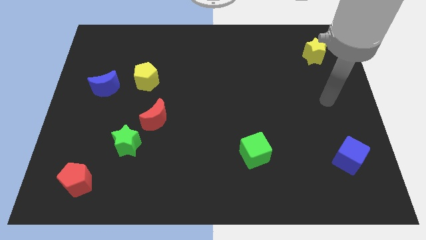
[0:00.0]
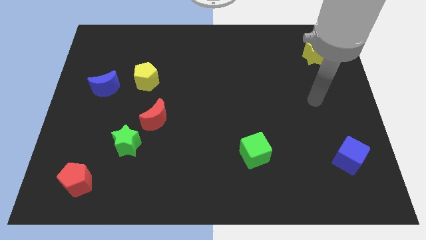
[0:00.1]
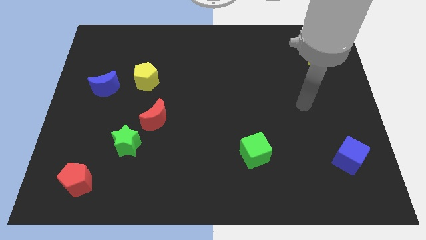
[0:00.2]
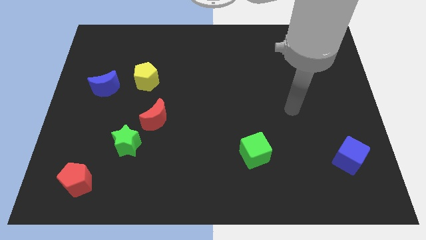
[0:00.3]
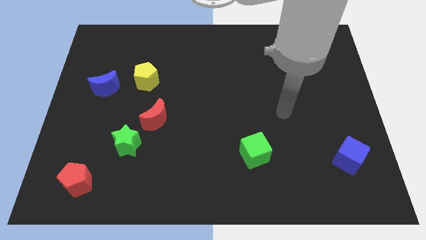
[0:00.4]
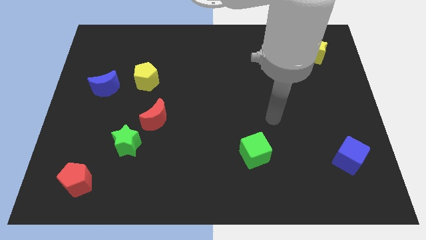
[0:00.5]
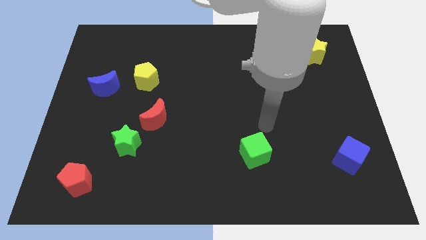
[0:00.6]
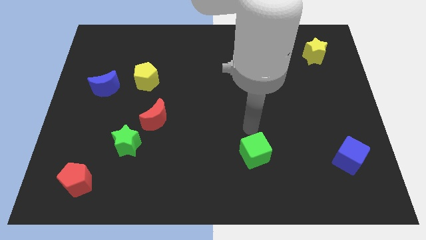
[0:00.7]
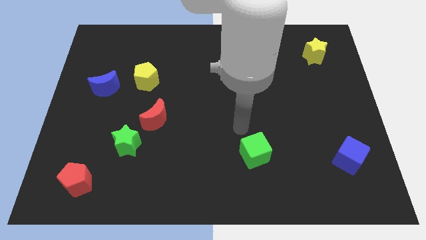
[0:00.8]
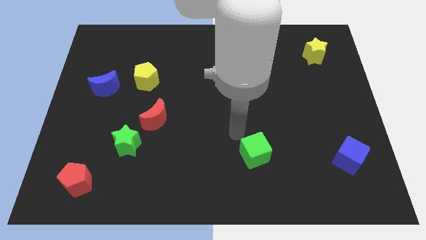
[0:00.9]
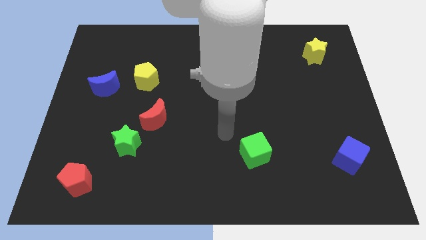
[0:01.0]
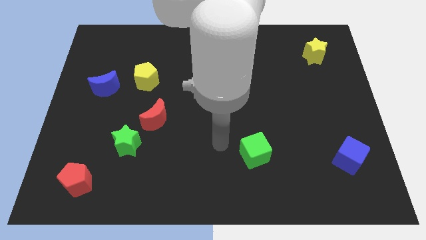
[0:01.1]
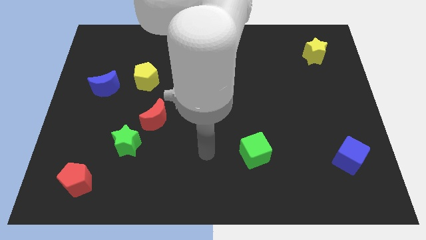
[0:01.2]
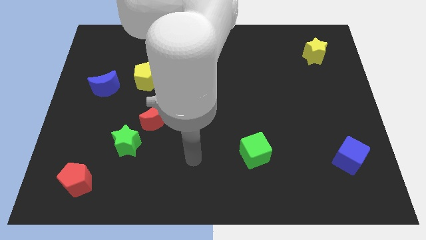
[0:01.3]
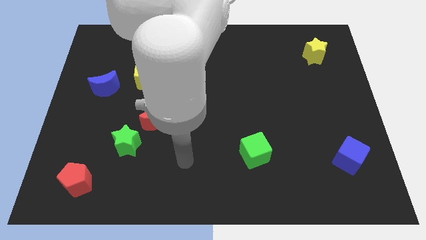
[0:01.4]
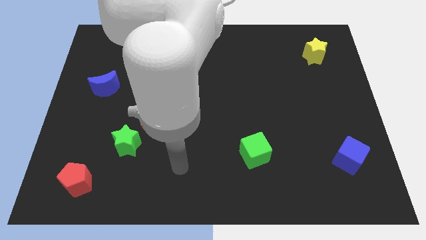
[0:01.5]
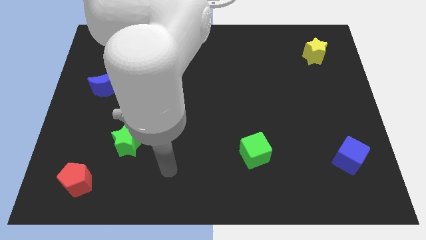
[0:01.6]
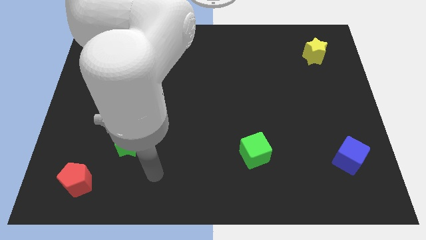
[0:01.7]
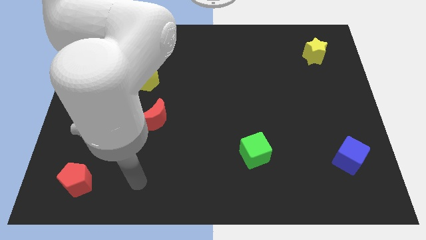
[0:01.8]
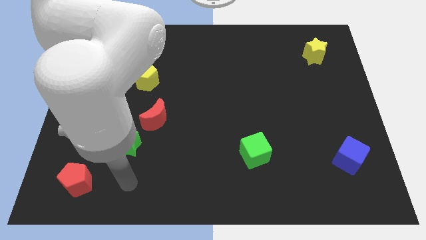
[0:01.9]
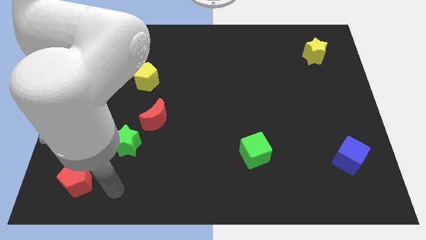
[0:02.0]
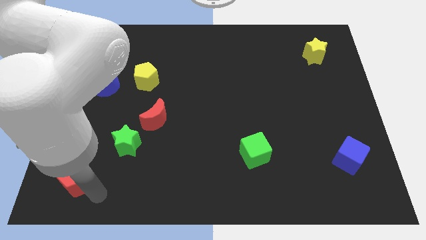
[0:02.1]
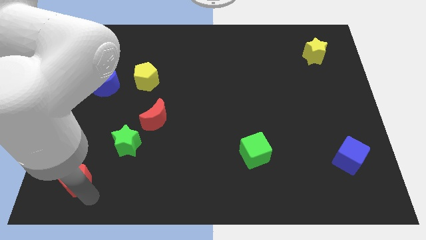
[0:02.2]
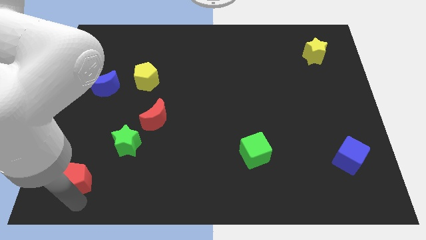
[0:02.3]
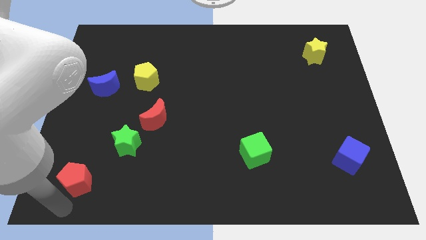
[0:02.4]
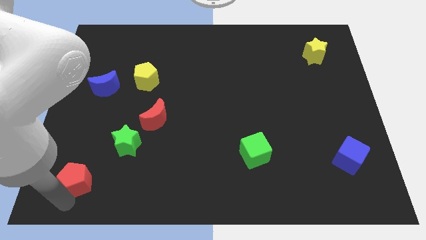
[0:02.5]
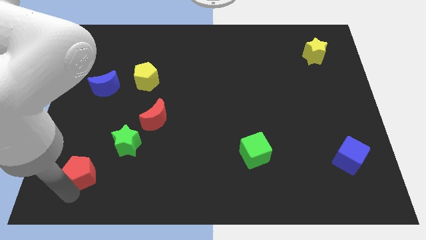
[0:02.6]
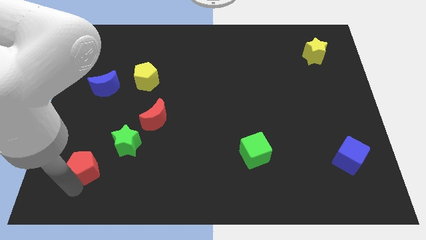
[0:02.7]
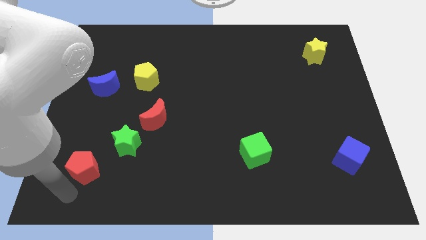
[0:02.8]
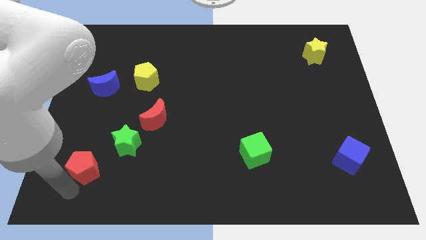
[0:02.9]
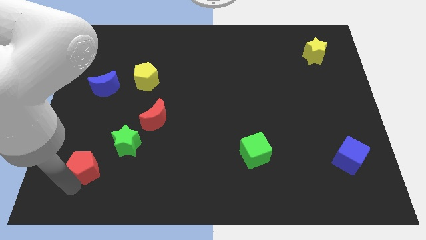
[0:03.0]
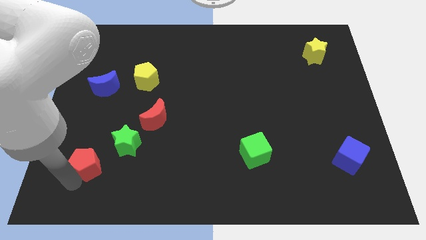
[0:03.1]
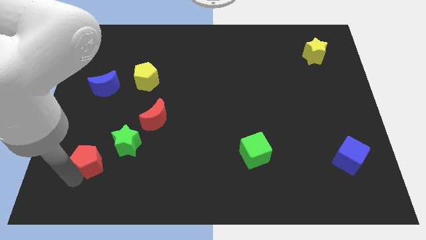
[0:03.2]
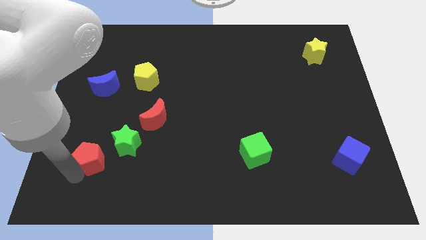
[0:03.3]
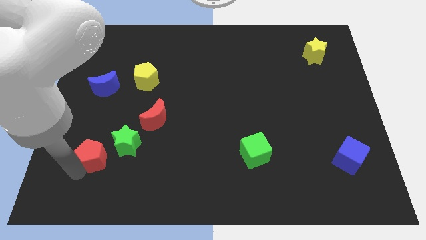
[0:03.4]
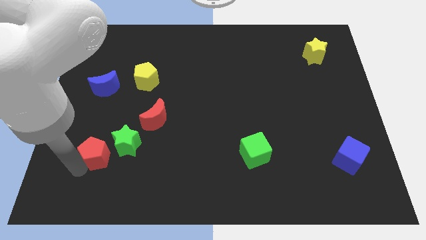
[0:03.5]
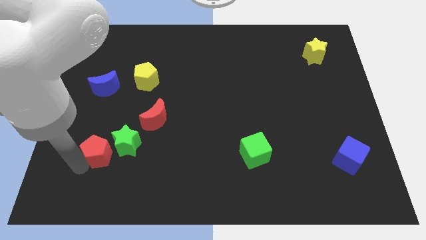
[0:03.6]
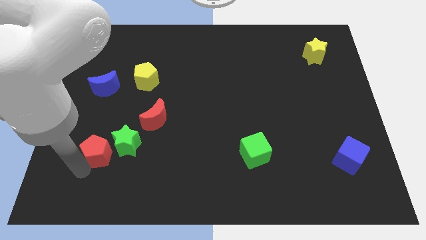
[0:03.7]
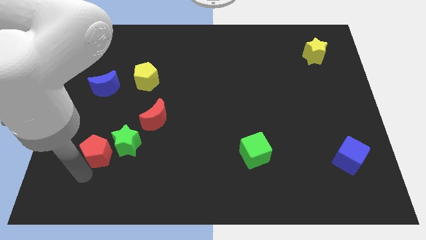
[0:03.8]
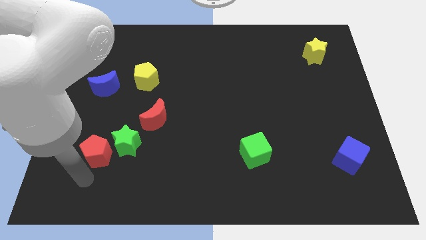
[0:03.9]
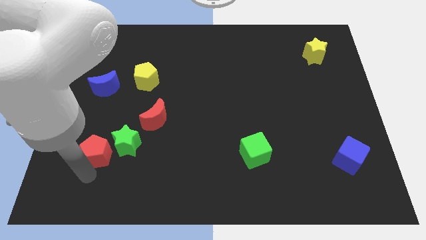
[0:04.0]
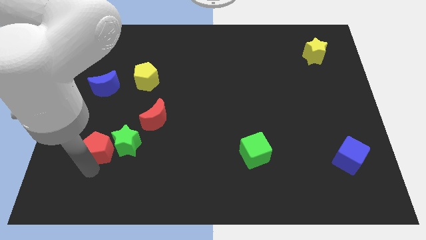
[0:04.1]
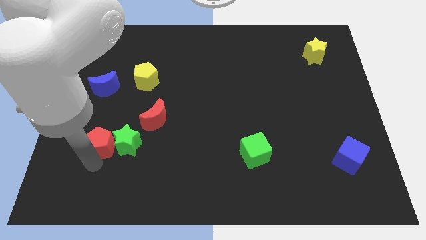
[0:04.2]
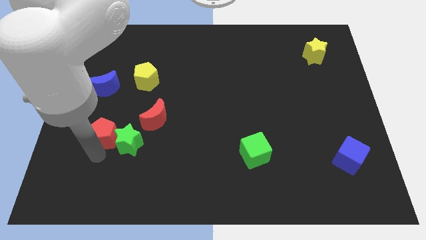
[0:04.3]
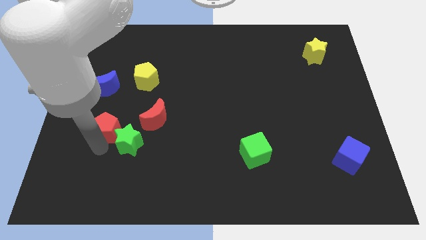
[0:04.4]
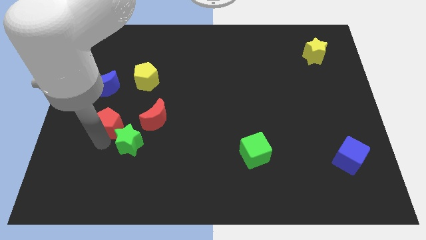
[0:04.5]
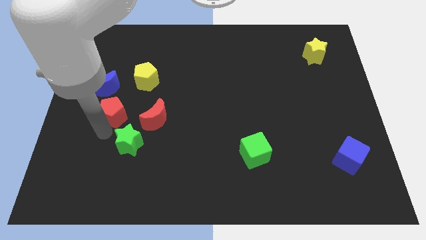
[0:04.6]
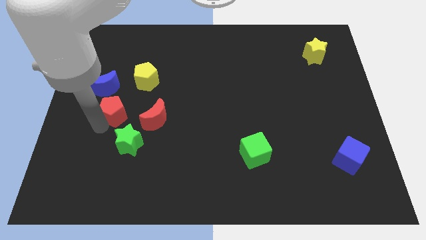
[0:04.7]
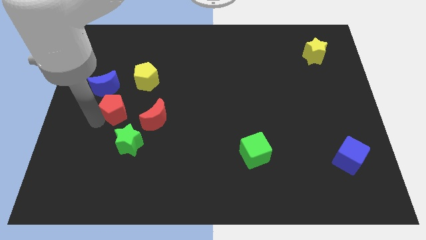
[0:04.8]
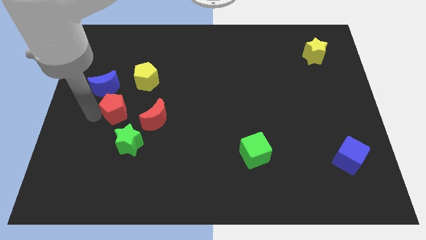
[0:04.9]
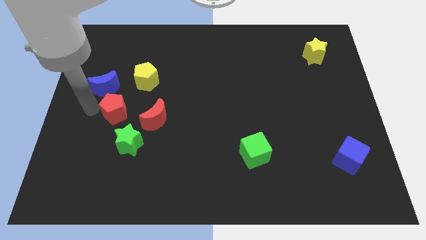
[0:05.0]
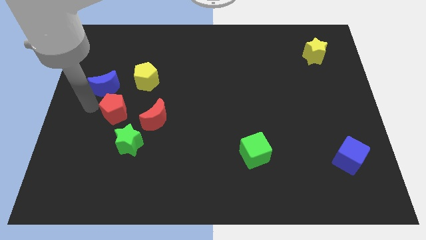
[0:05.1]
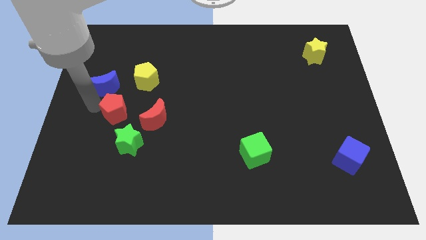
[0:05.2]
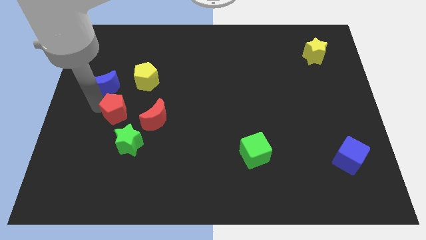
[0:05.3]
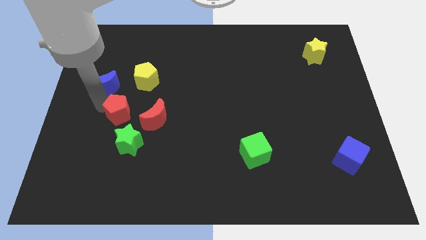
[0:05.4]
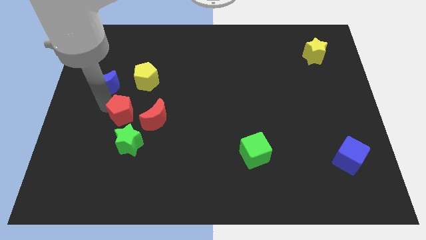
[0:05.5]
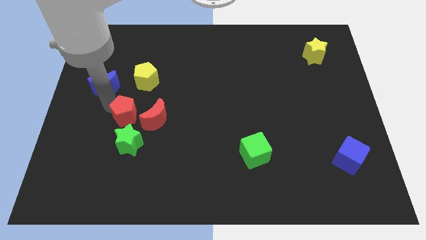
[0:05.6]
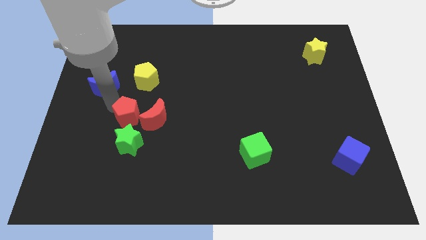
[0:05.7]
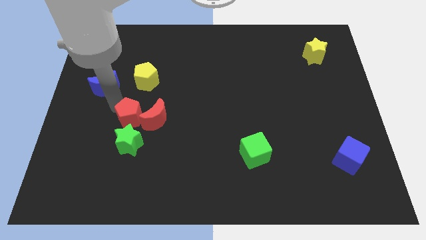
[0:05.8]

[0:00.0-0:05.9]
move the red pentagon to the red moon

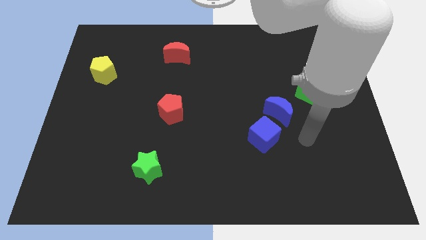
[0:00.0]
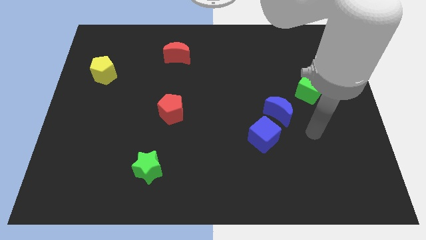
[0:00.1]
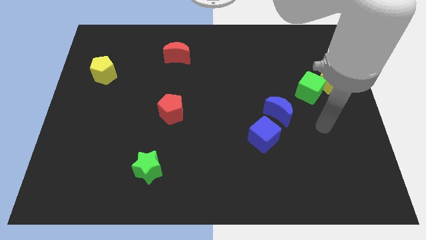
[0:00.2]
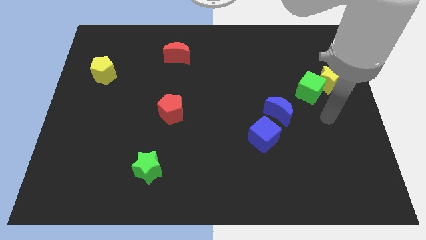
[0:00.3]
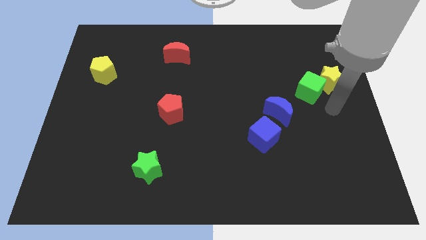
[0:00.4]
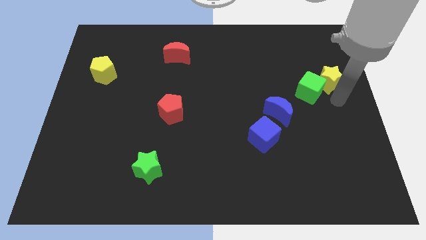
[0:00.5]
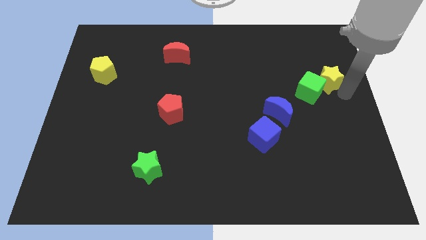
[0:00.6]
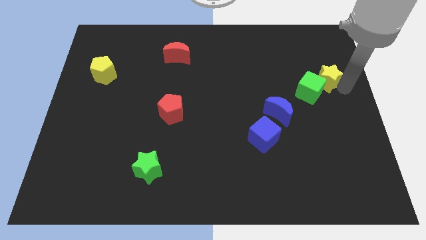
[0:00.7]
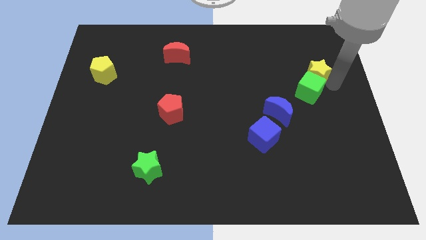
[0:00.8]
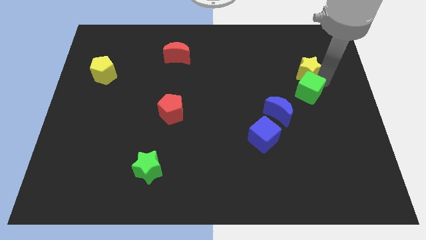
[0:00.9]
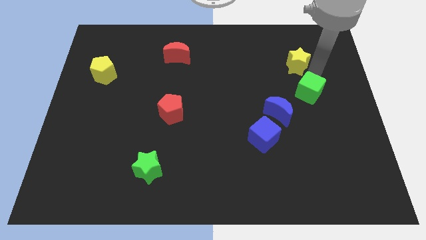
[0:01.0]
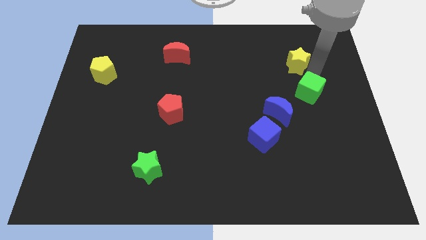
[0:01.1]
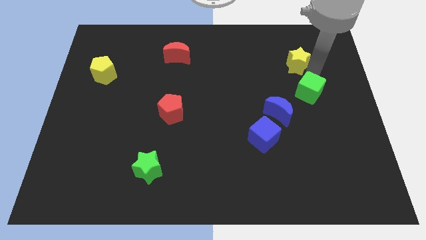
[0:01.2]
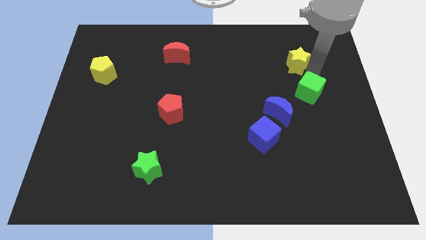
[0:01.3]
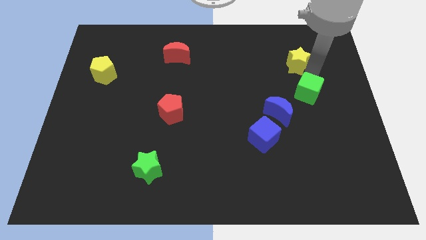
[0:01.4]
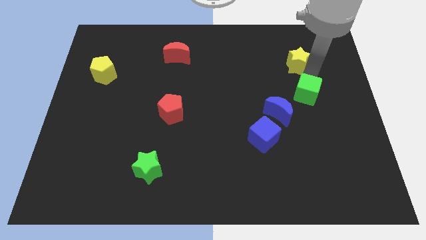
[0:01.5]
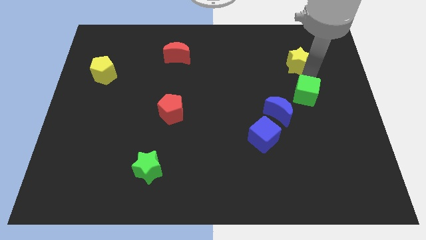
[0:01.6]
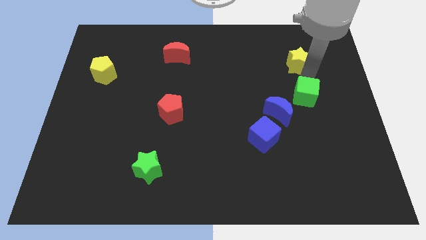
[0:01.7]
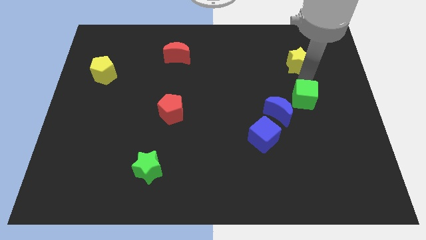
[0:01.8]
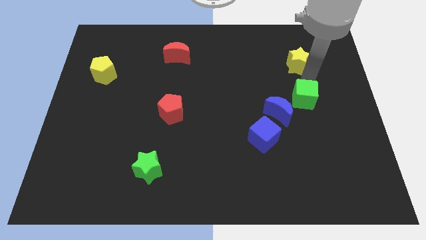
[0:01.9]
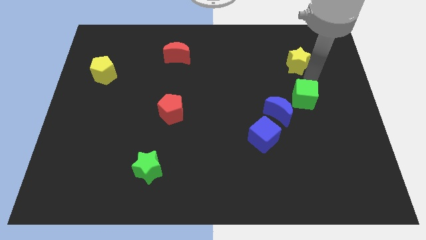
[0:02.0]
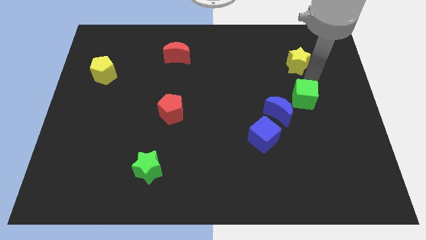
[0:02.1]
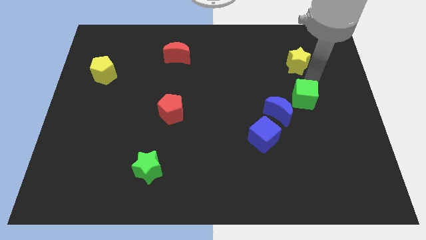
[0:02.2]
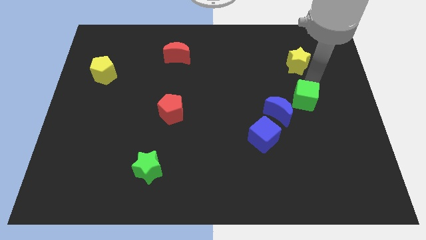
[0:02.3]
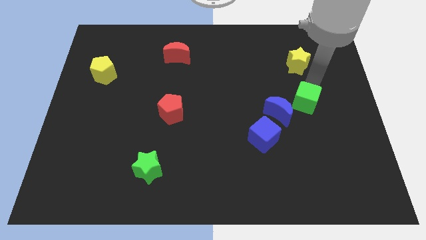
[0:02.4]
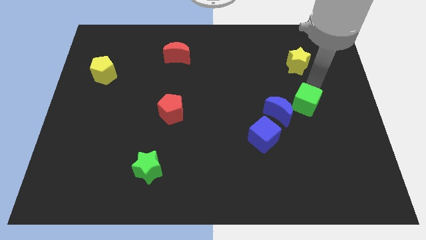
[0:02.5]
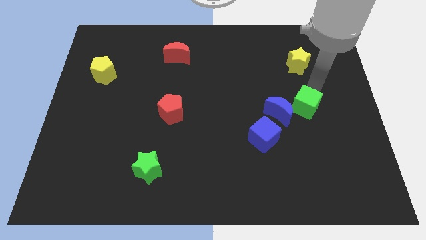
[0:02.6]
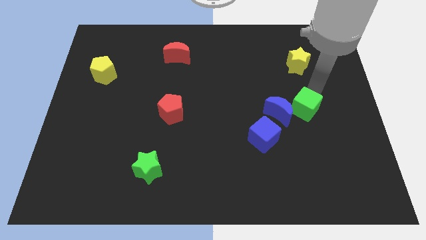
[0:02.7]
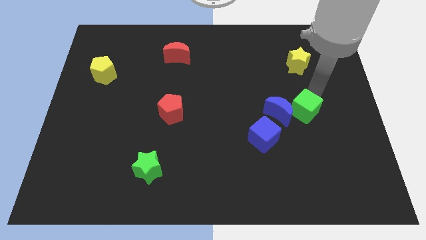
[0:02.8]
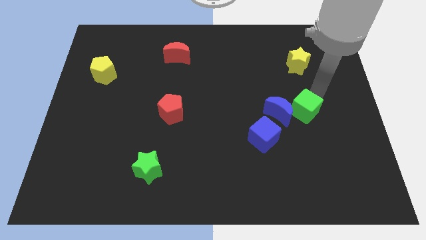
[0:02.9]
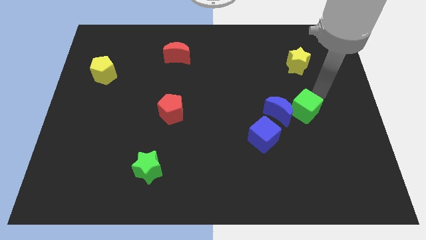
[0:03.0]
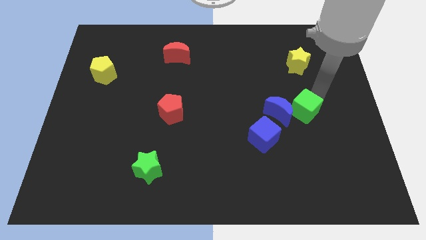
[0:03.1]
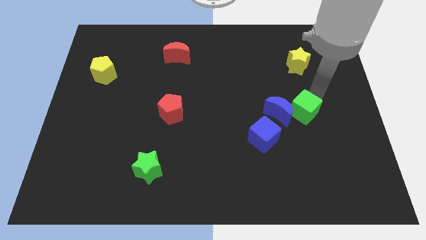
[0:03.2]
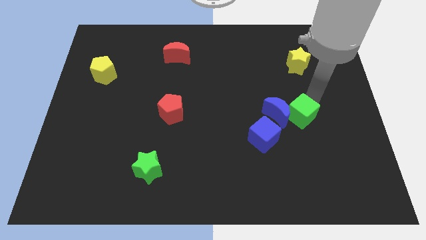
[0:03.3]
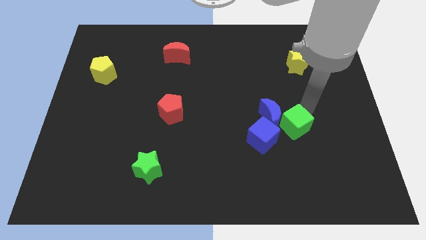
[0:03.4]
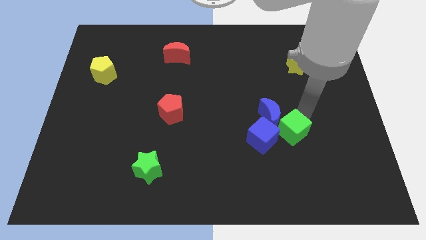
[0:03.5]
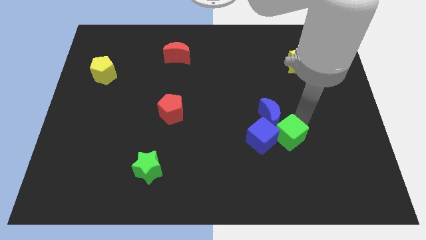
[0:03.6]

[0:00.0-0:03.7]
push the green cube next to the blue cube
